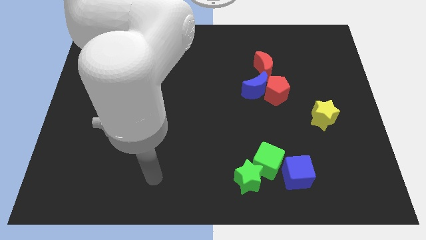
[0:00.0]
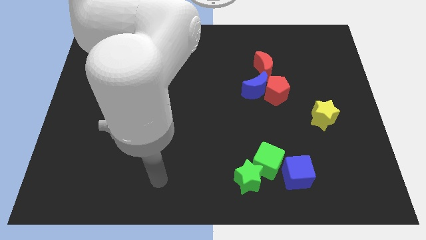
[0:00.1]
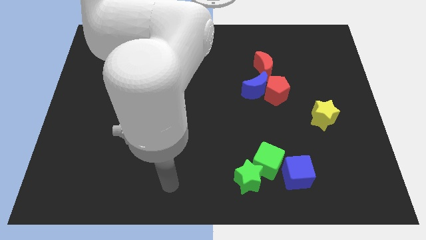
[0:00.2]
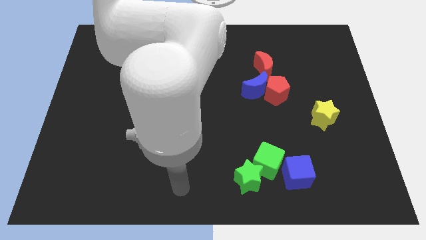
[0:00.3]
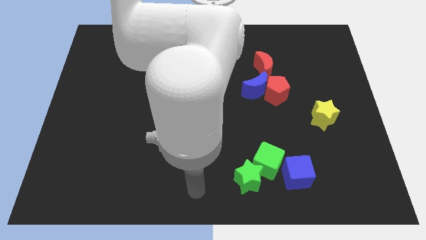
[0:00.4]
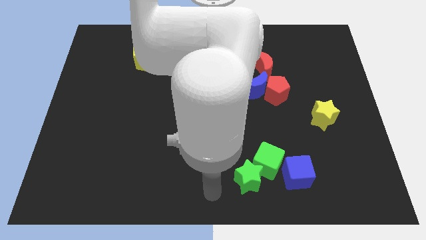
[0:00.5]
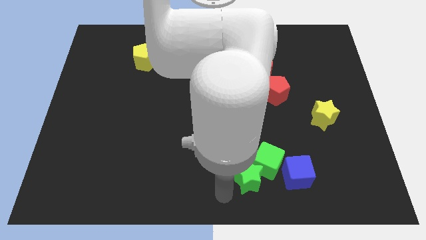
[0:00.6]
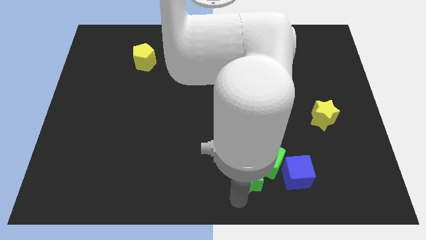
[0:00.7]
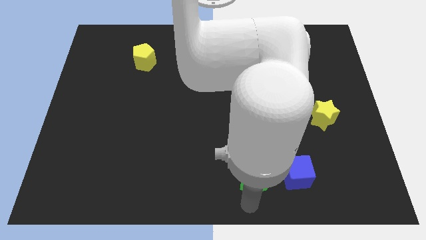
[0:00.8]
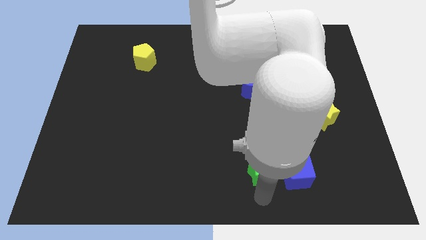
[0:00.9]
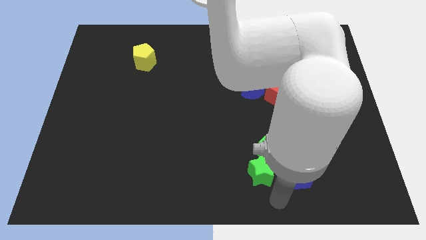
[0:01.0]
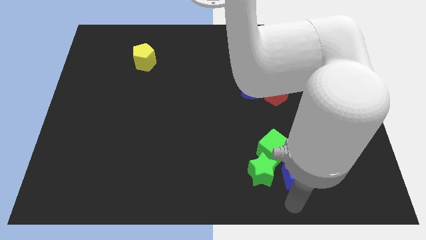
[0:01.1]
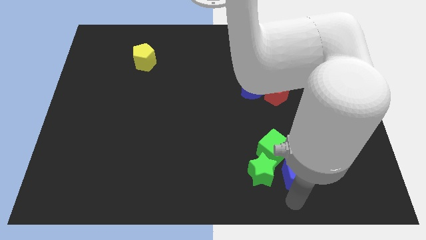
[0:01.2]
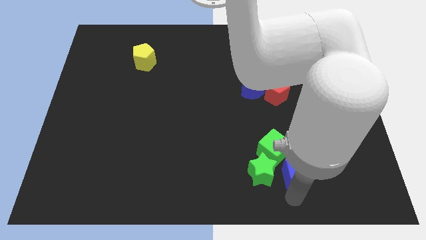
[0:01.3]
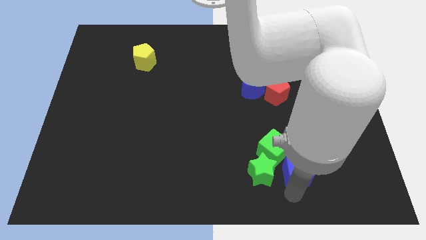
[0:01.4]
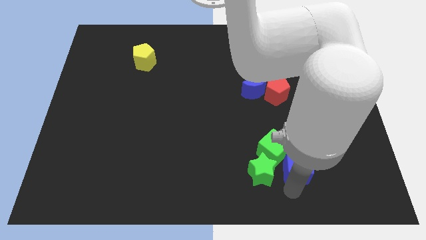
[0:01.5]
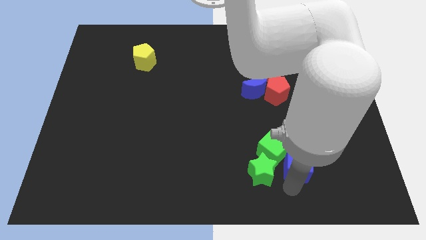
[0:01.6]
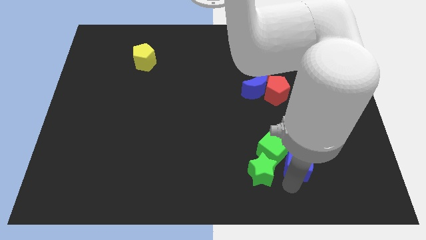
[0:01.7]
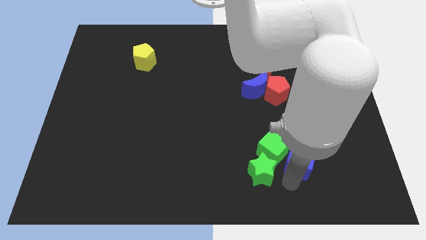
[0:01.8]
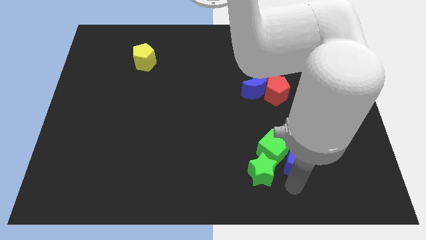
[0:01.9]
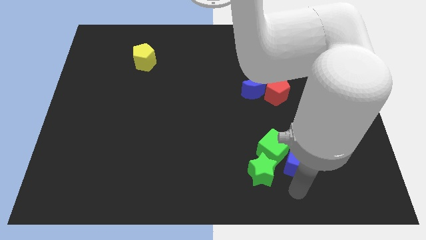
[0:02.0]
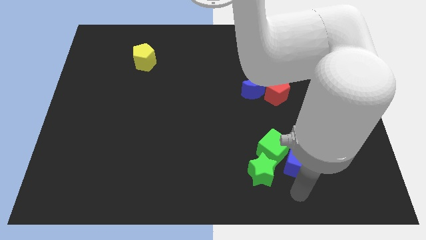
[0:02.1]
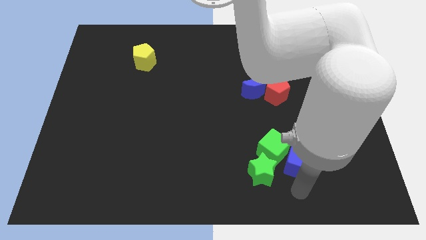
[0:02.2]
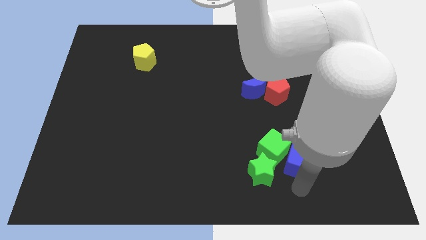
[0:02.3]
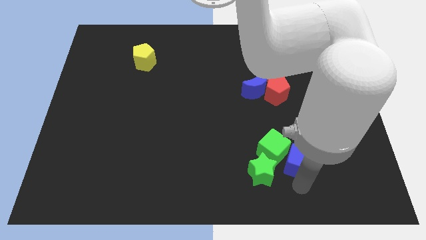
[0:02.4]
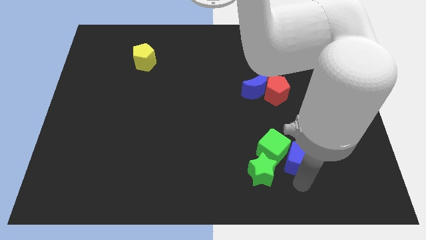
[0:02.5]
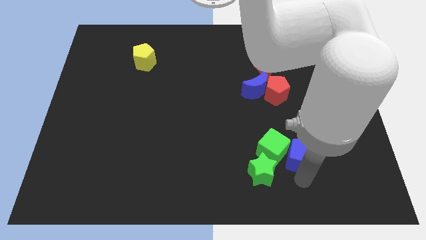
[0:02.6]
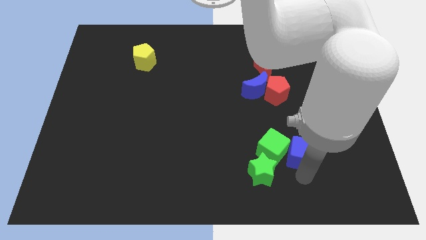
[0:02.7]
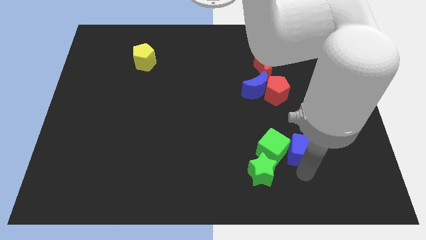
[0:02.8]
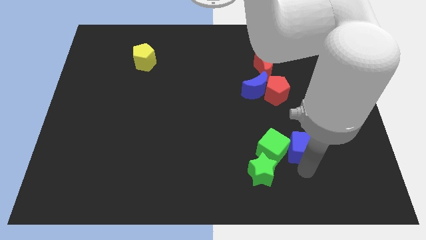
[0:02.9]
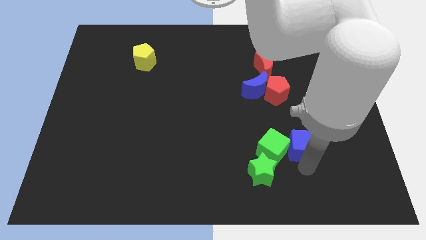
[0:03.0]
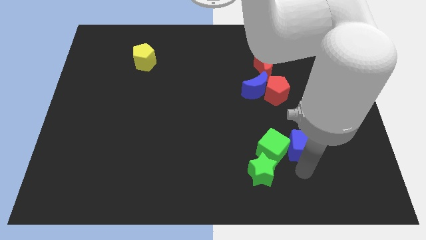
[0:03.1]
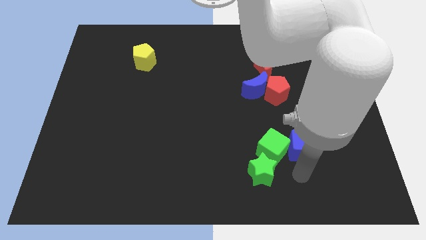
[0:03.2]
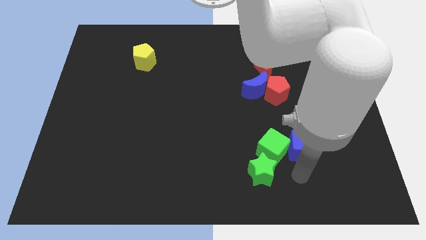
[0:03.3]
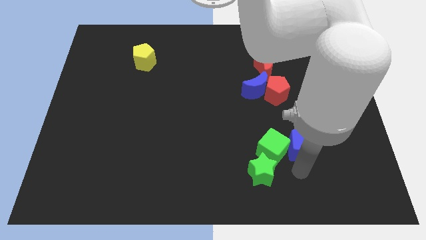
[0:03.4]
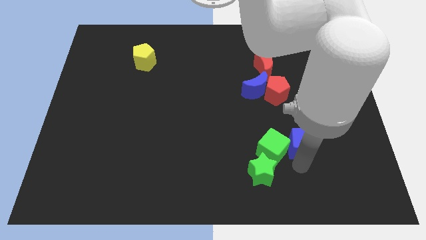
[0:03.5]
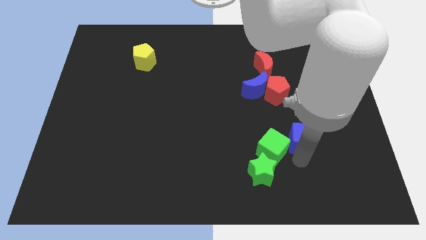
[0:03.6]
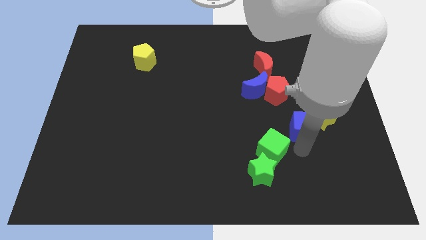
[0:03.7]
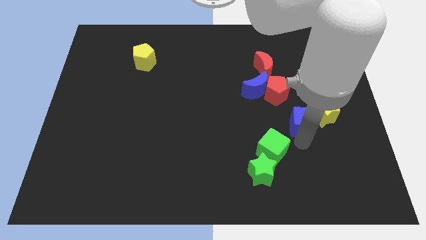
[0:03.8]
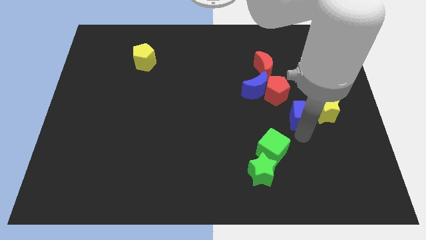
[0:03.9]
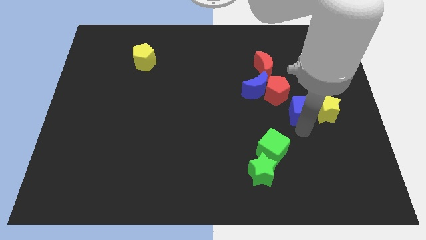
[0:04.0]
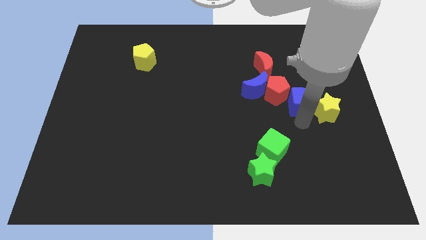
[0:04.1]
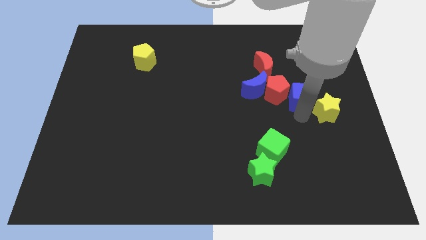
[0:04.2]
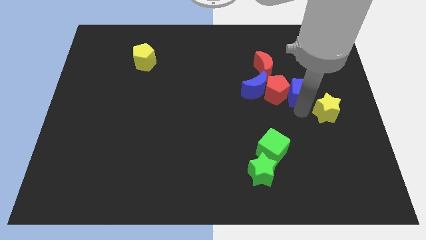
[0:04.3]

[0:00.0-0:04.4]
move the blue cube upwards

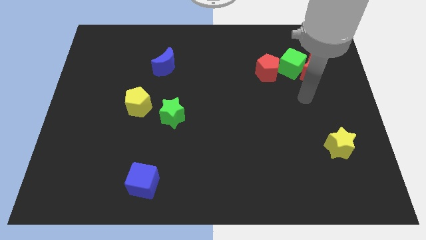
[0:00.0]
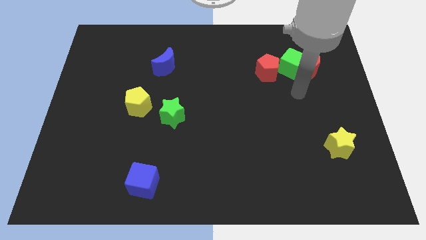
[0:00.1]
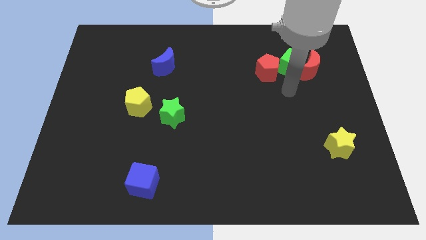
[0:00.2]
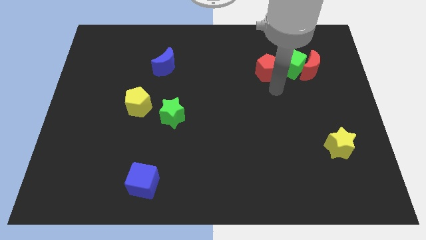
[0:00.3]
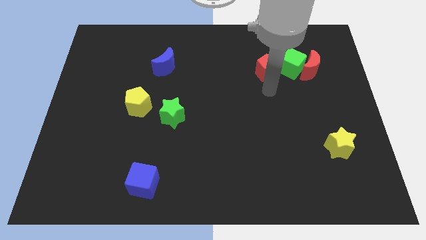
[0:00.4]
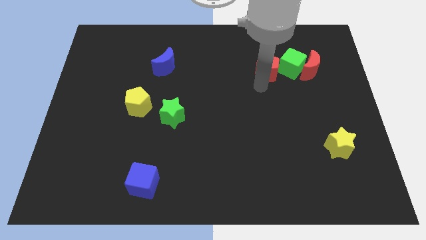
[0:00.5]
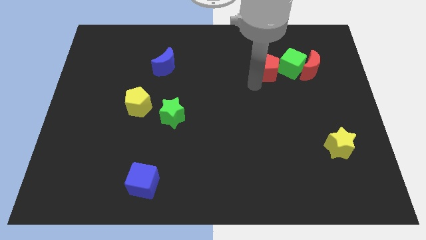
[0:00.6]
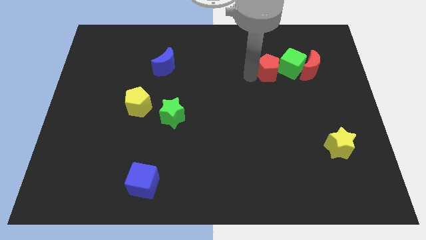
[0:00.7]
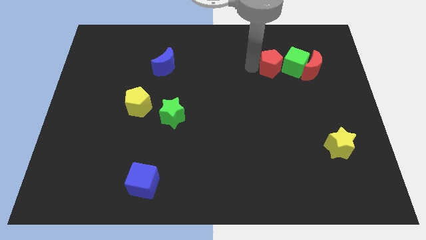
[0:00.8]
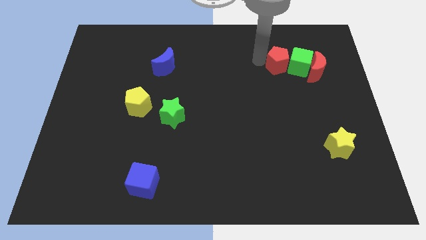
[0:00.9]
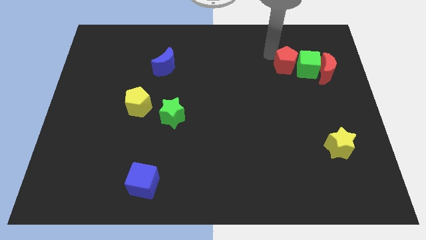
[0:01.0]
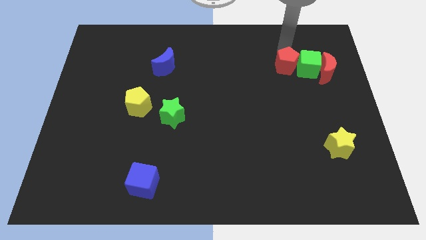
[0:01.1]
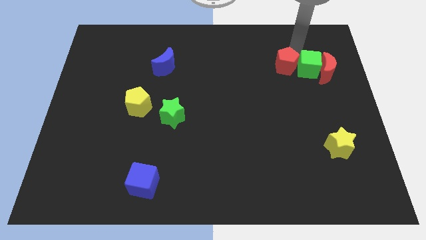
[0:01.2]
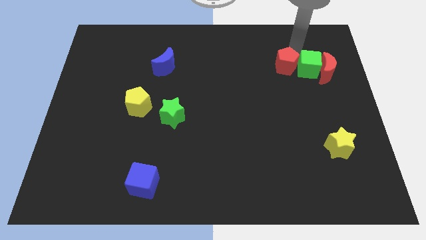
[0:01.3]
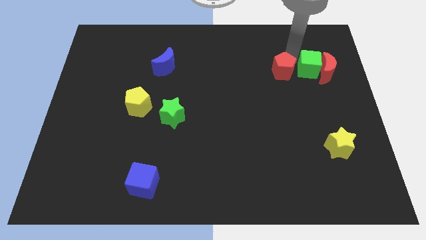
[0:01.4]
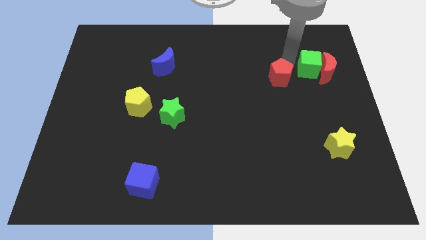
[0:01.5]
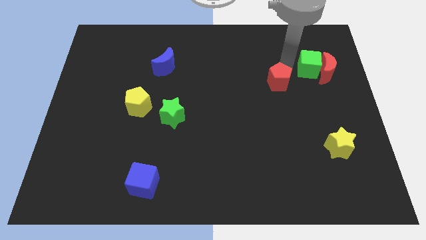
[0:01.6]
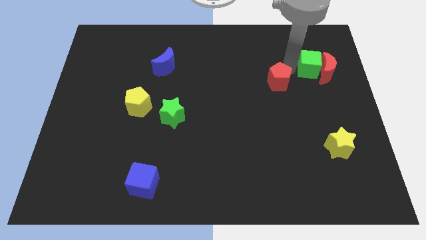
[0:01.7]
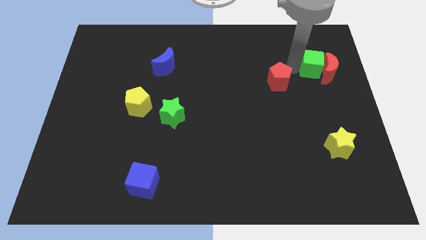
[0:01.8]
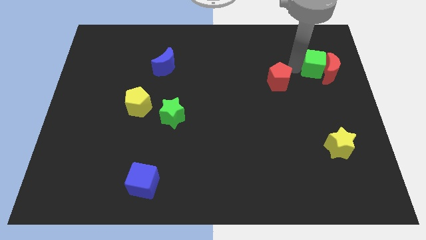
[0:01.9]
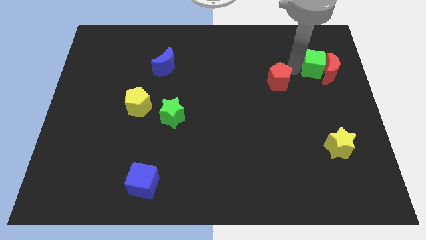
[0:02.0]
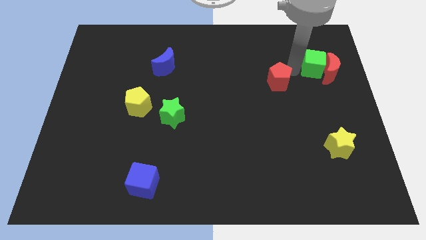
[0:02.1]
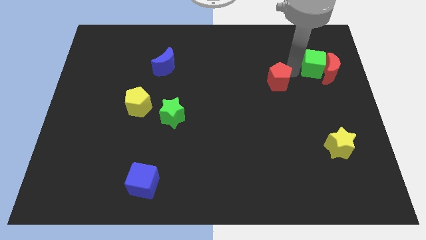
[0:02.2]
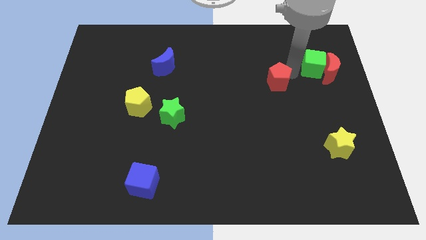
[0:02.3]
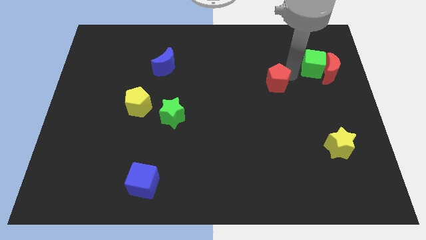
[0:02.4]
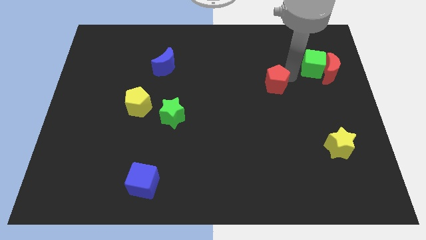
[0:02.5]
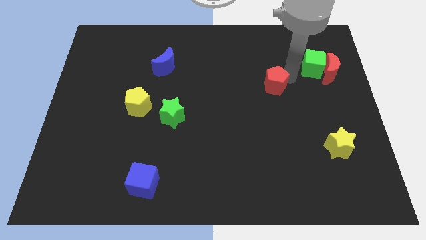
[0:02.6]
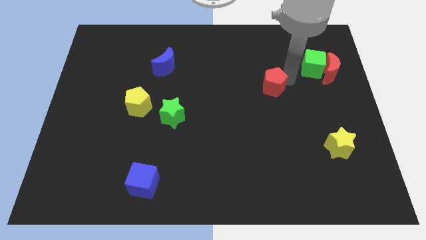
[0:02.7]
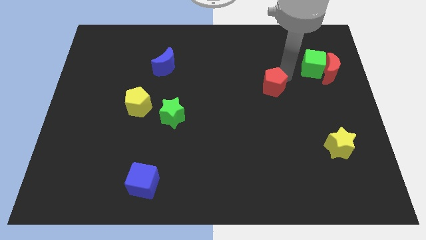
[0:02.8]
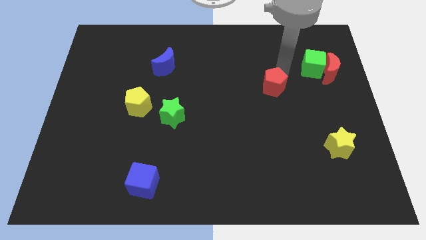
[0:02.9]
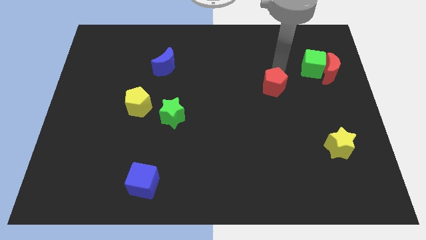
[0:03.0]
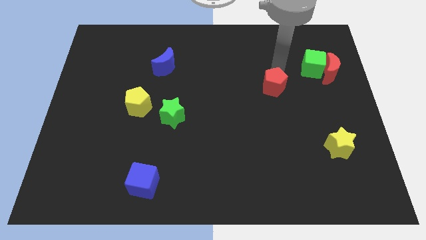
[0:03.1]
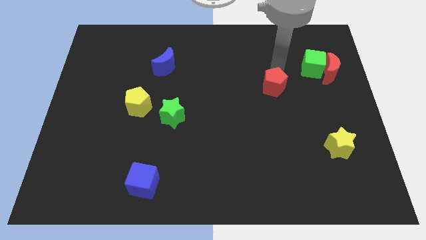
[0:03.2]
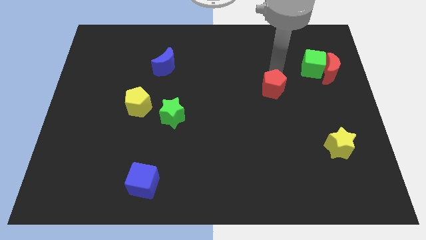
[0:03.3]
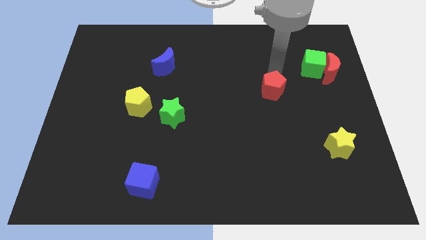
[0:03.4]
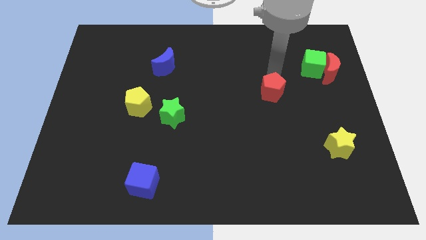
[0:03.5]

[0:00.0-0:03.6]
push the red pentagon downwards slightly
